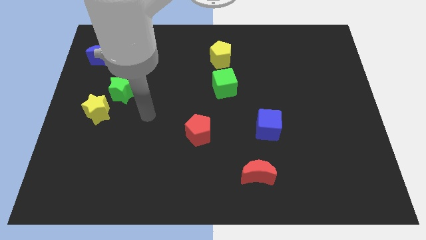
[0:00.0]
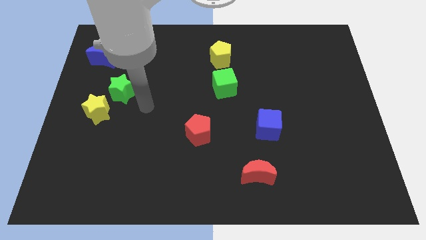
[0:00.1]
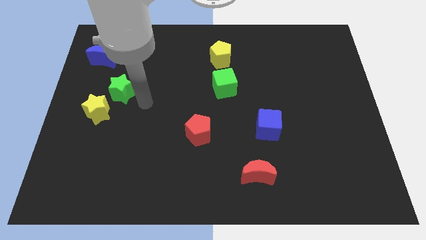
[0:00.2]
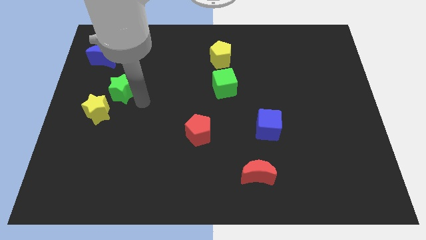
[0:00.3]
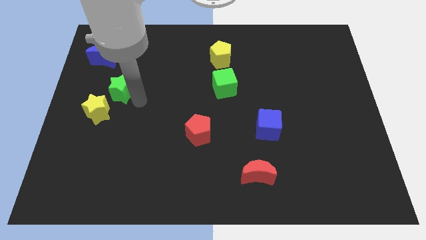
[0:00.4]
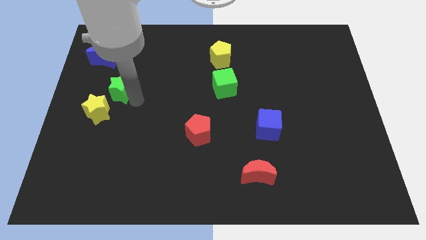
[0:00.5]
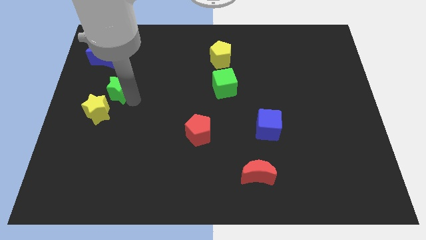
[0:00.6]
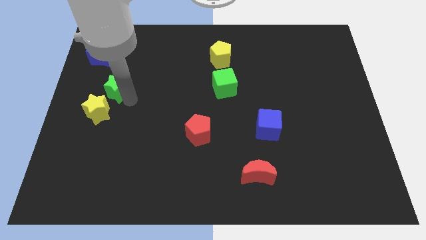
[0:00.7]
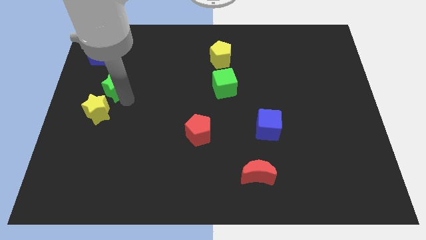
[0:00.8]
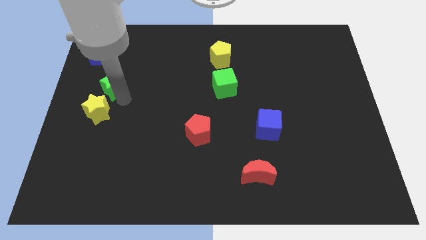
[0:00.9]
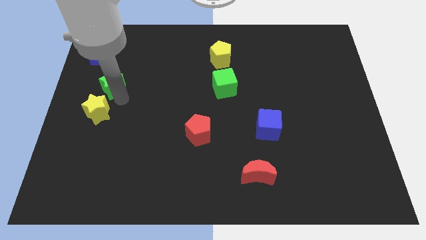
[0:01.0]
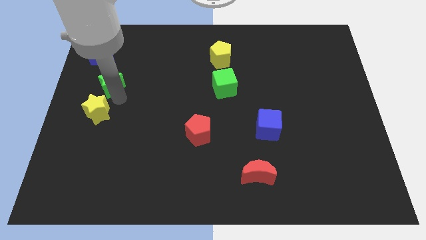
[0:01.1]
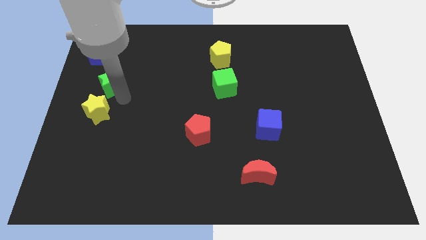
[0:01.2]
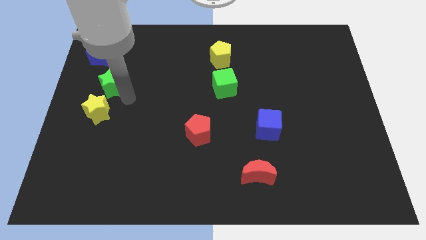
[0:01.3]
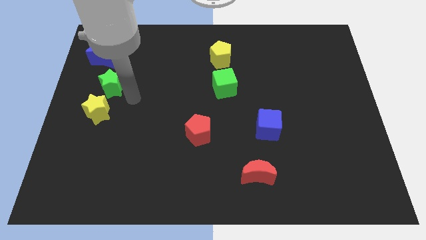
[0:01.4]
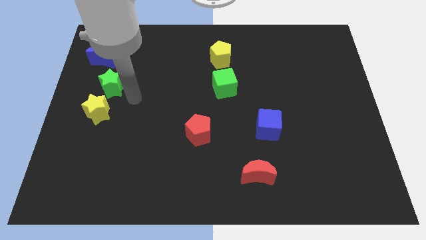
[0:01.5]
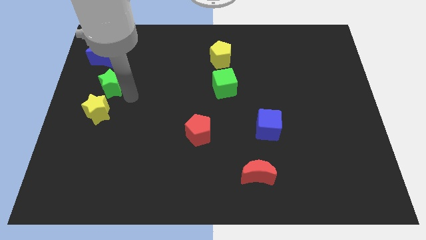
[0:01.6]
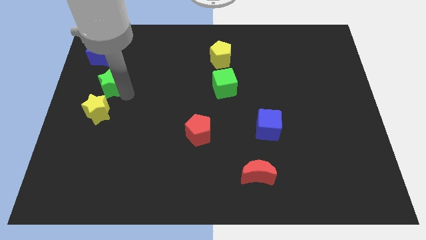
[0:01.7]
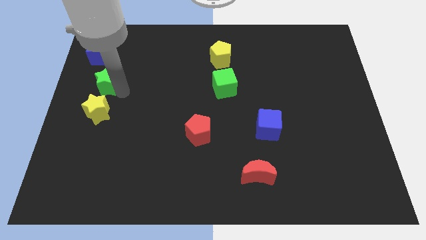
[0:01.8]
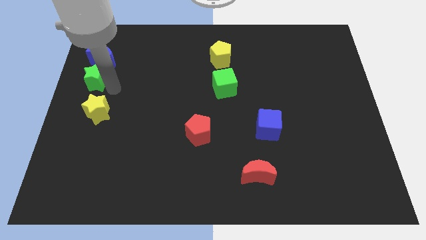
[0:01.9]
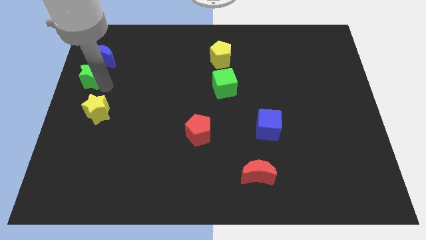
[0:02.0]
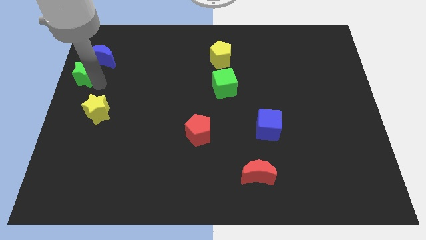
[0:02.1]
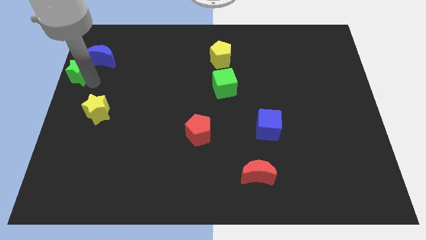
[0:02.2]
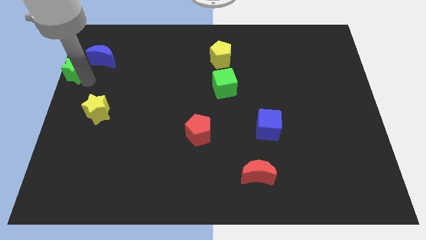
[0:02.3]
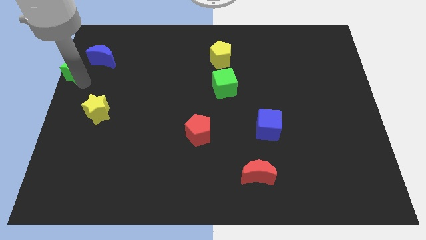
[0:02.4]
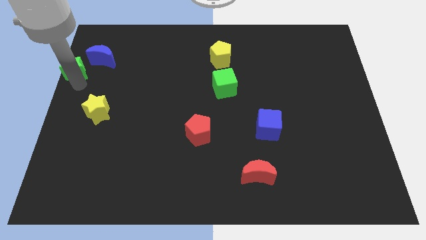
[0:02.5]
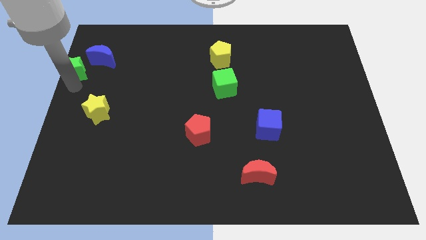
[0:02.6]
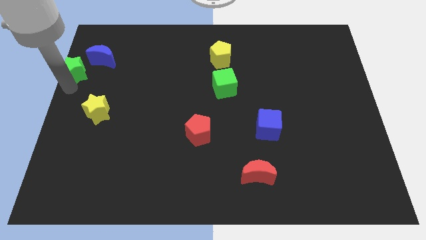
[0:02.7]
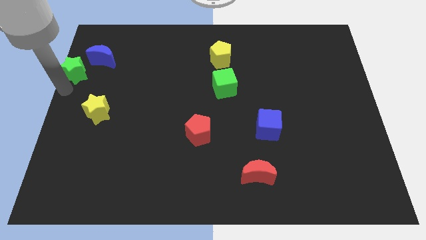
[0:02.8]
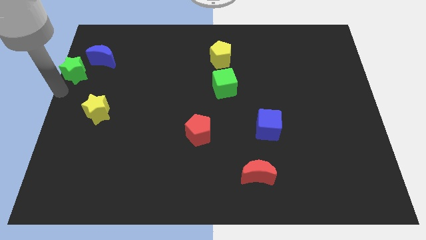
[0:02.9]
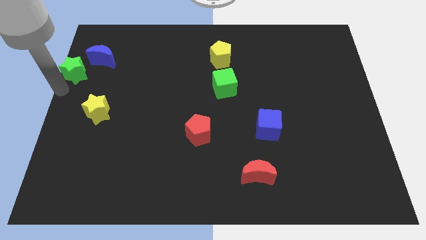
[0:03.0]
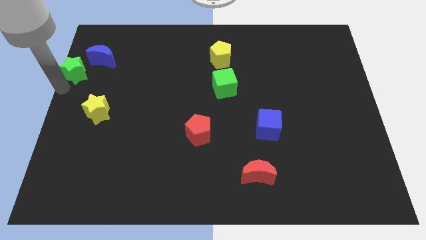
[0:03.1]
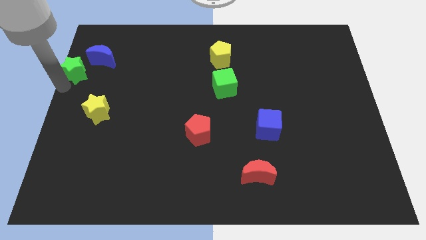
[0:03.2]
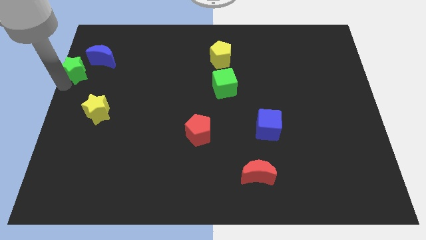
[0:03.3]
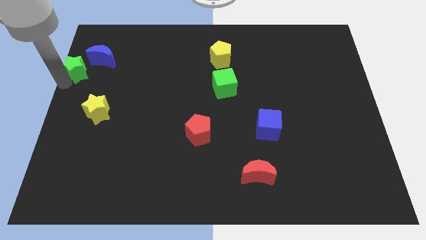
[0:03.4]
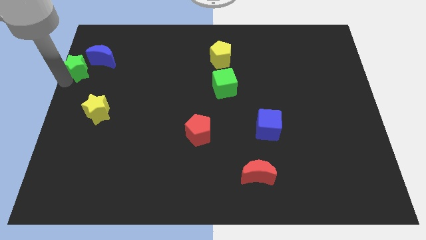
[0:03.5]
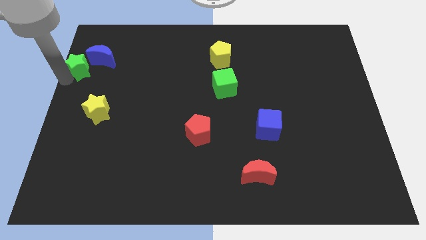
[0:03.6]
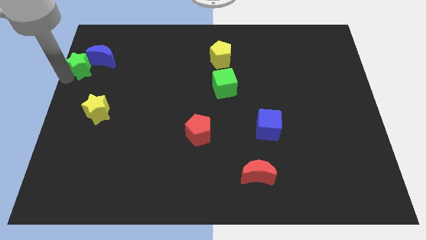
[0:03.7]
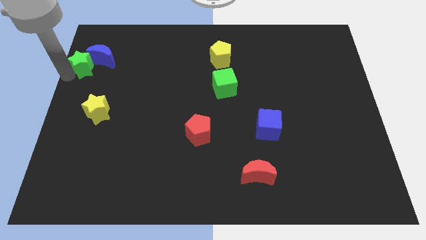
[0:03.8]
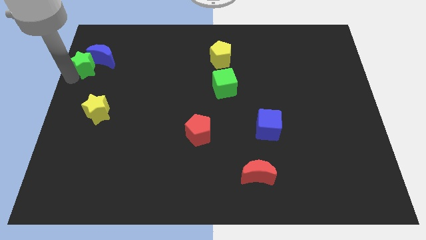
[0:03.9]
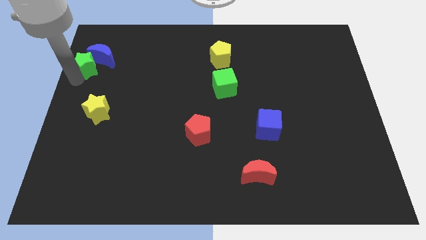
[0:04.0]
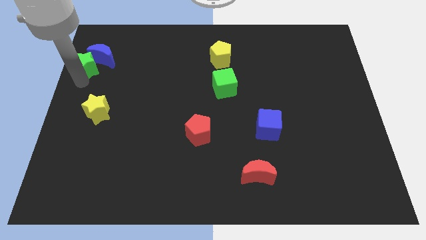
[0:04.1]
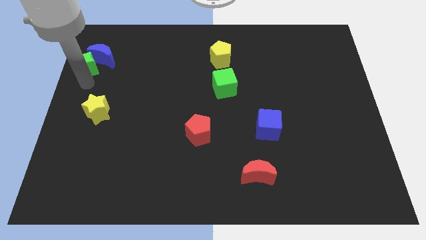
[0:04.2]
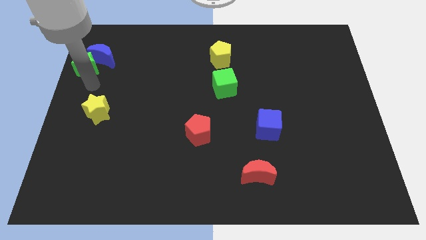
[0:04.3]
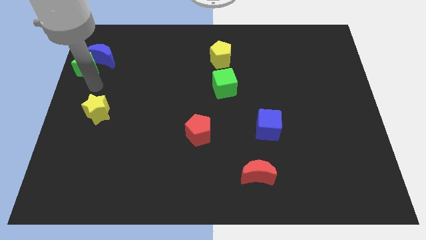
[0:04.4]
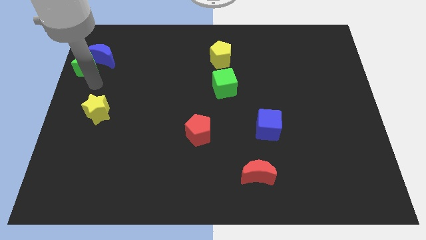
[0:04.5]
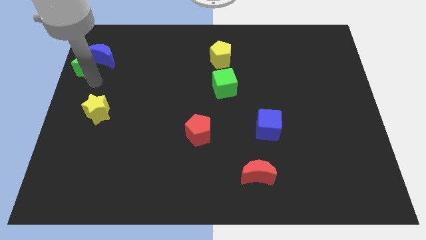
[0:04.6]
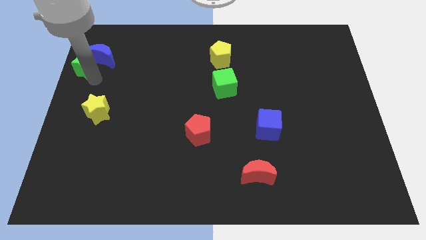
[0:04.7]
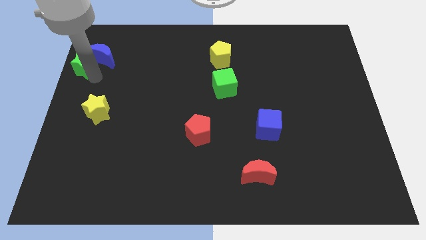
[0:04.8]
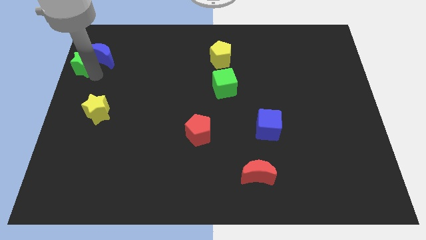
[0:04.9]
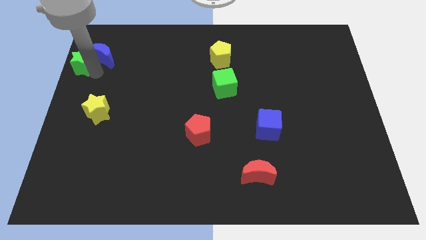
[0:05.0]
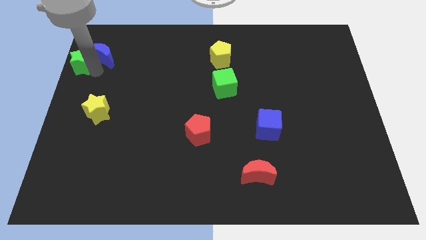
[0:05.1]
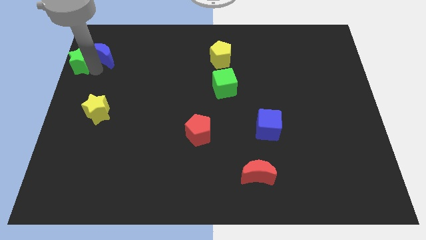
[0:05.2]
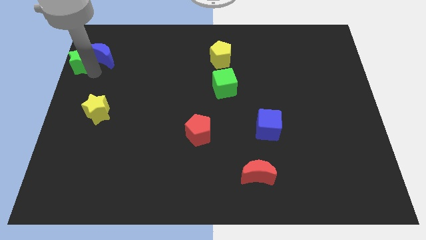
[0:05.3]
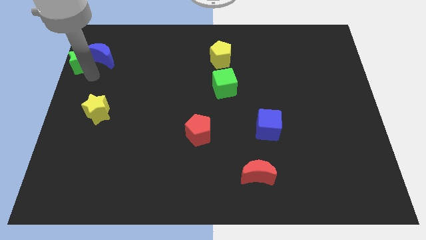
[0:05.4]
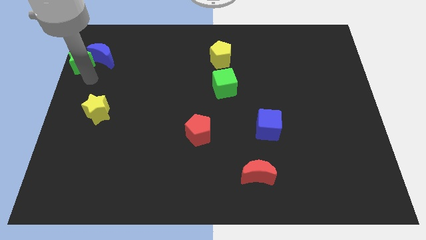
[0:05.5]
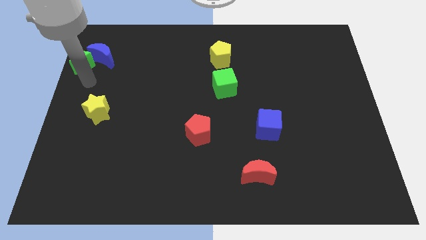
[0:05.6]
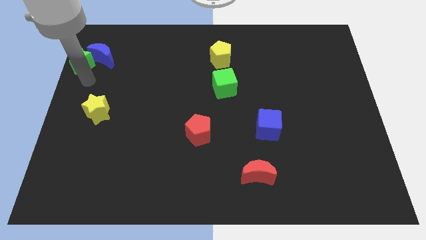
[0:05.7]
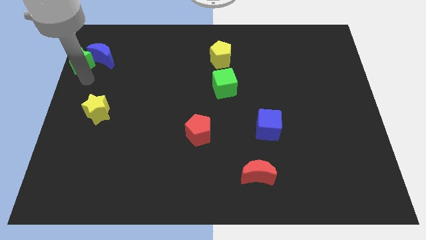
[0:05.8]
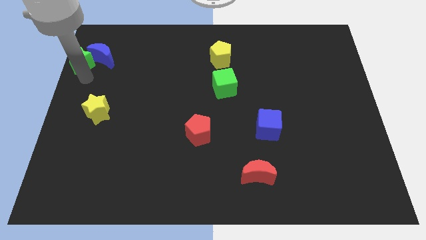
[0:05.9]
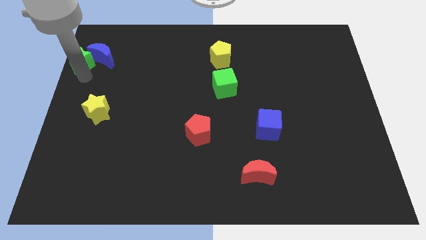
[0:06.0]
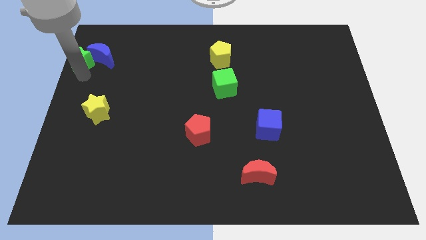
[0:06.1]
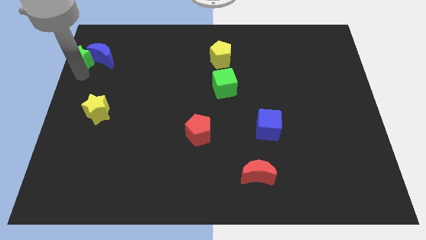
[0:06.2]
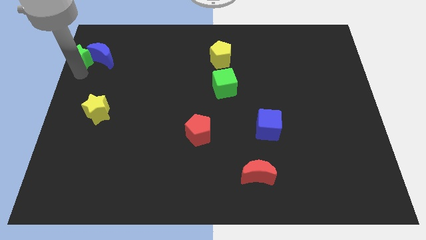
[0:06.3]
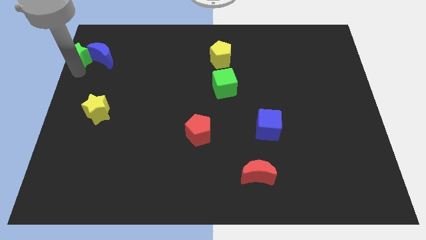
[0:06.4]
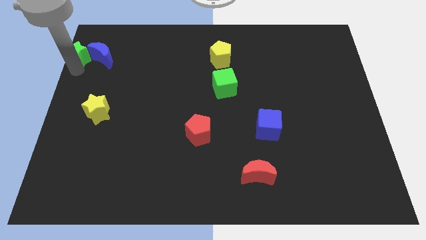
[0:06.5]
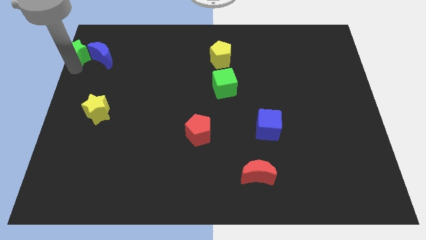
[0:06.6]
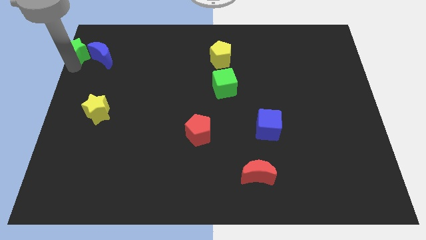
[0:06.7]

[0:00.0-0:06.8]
put the green star to the top left corner
